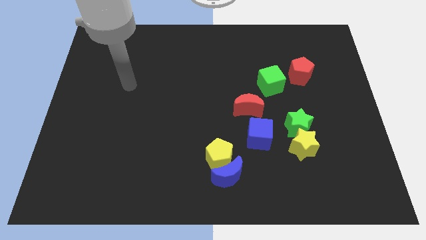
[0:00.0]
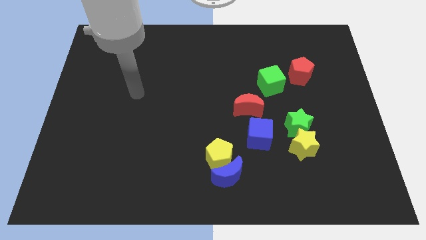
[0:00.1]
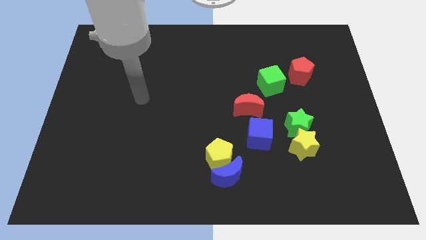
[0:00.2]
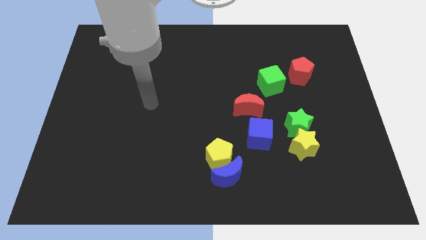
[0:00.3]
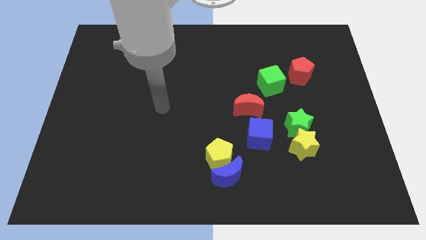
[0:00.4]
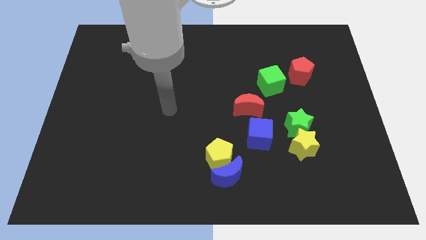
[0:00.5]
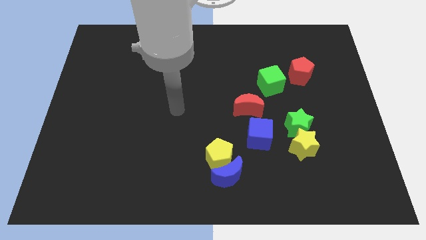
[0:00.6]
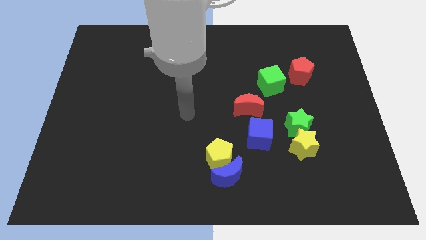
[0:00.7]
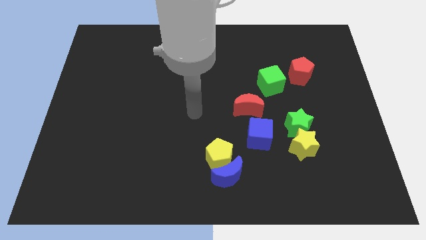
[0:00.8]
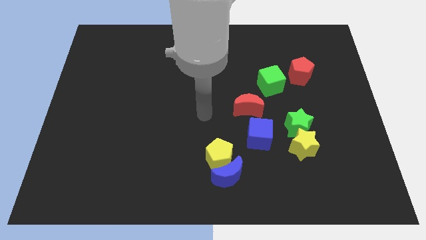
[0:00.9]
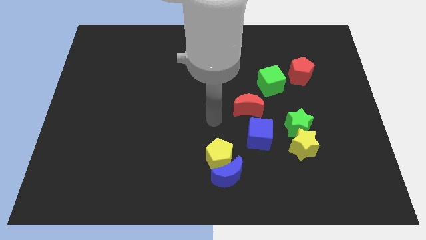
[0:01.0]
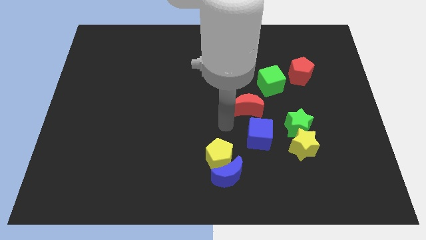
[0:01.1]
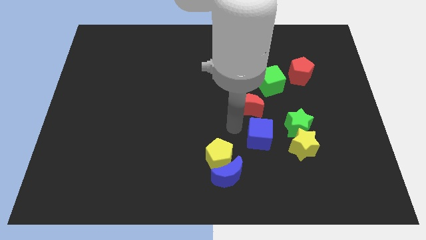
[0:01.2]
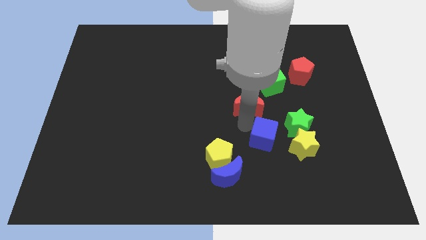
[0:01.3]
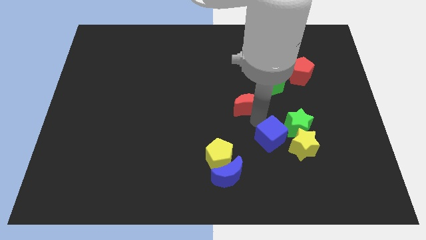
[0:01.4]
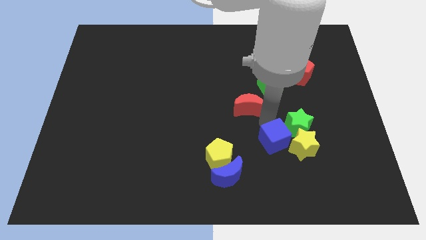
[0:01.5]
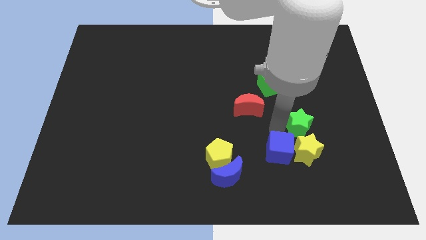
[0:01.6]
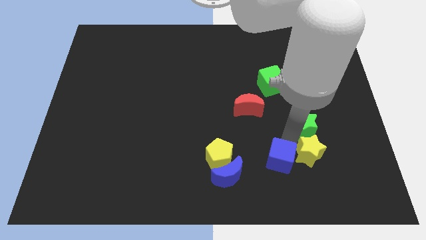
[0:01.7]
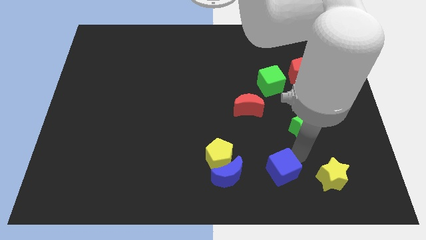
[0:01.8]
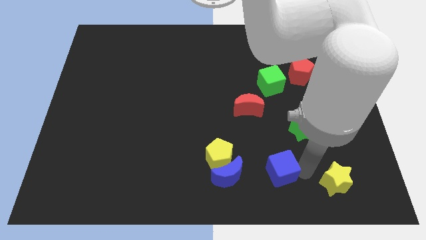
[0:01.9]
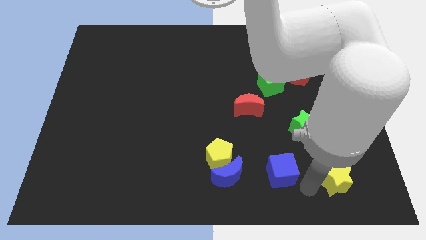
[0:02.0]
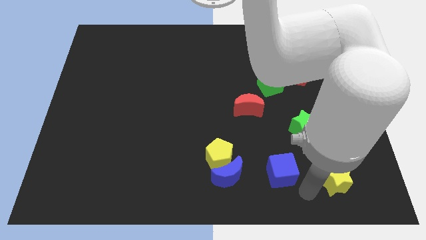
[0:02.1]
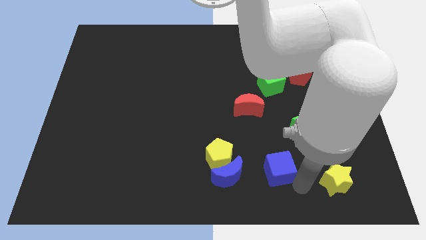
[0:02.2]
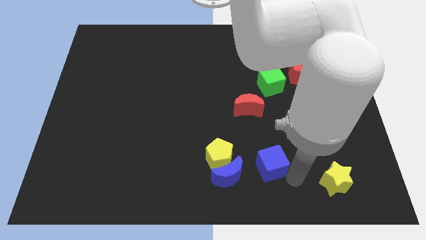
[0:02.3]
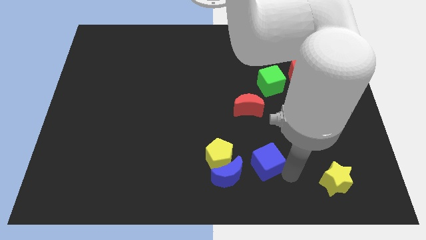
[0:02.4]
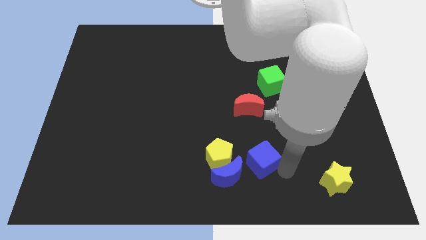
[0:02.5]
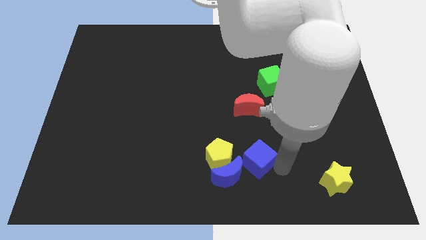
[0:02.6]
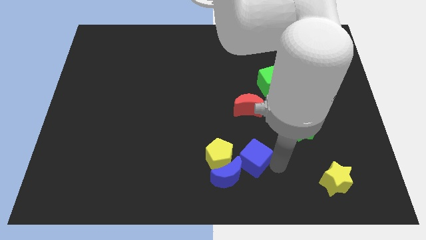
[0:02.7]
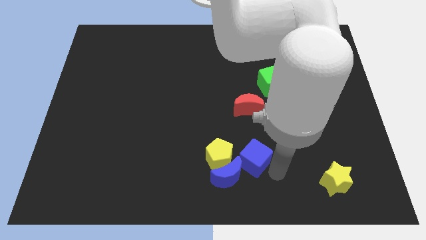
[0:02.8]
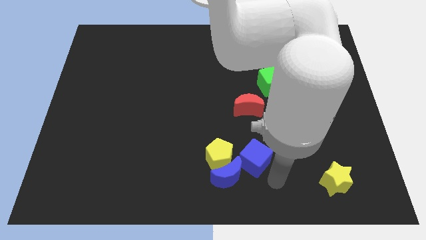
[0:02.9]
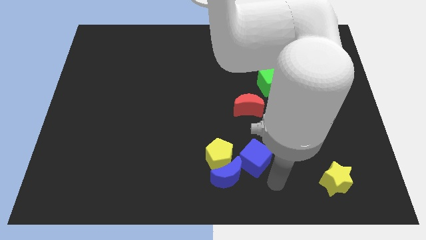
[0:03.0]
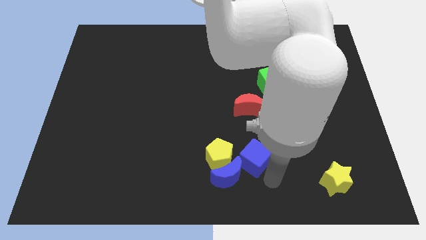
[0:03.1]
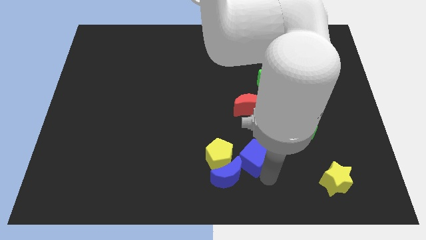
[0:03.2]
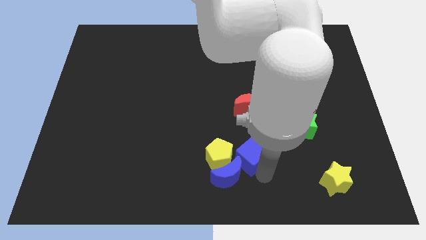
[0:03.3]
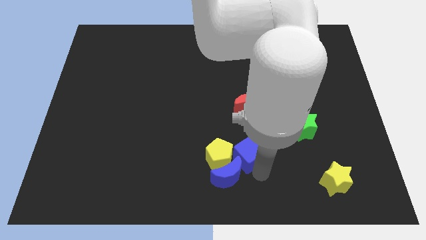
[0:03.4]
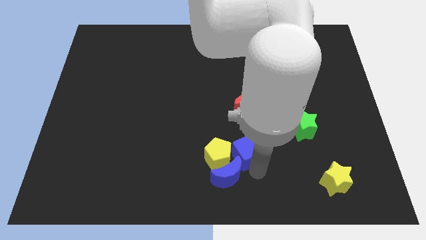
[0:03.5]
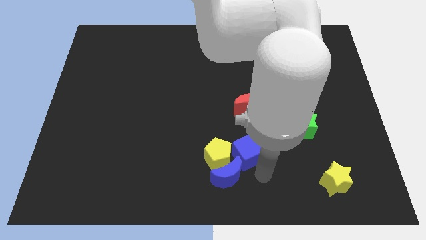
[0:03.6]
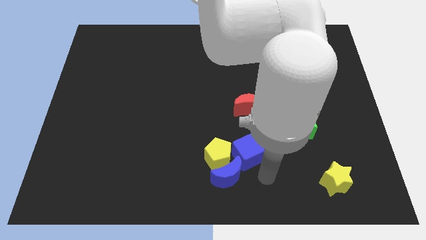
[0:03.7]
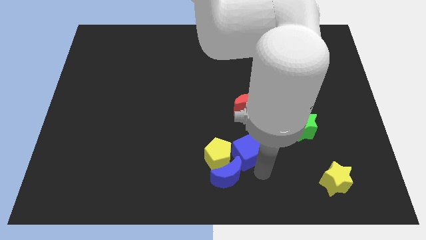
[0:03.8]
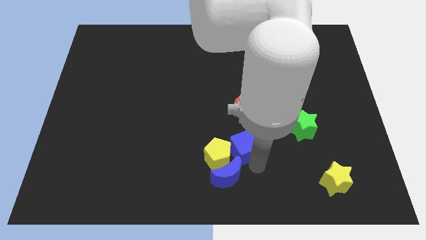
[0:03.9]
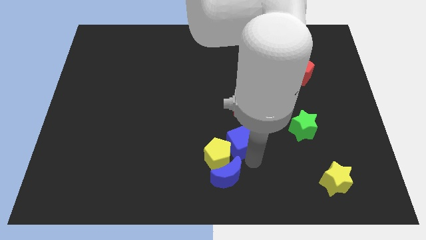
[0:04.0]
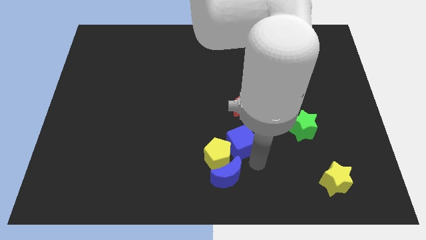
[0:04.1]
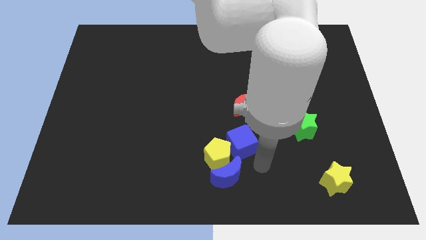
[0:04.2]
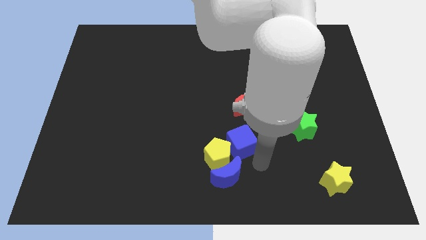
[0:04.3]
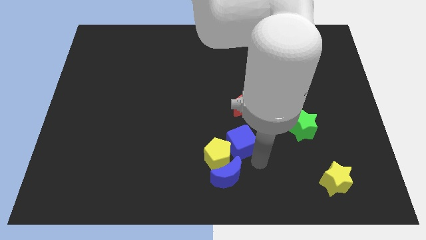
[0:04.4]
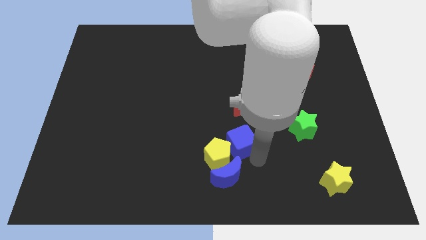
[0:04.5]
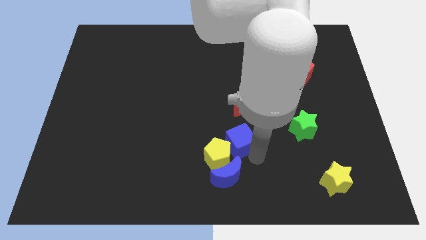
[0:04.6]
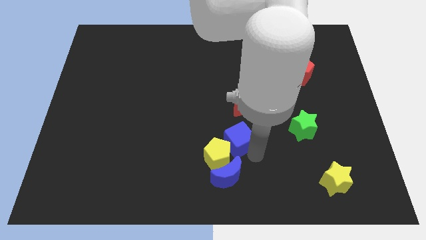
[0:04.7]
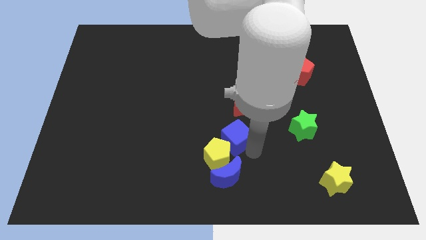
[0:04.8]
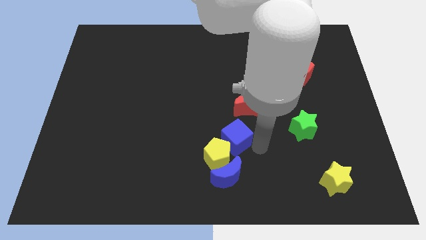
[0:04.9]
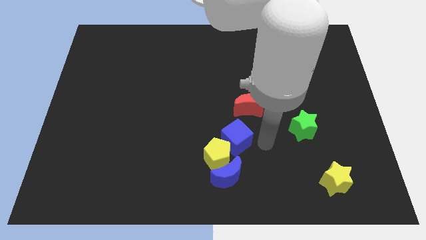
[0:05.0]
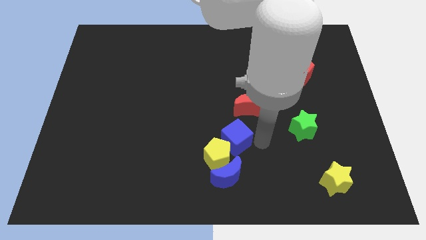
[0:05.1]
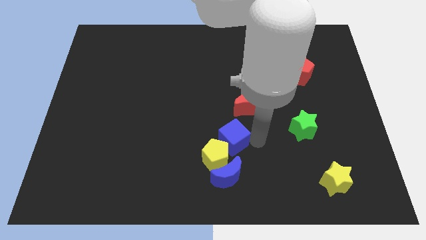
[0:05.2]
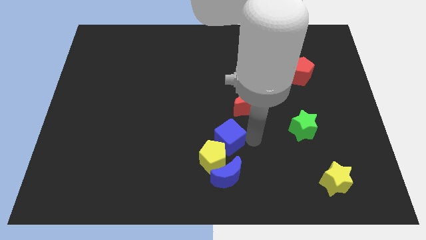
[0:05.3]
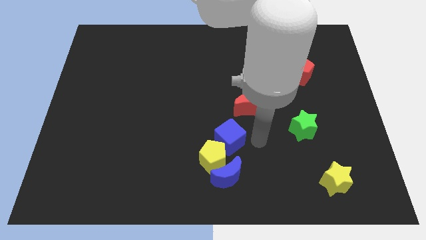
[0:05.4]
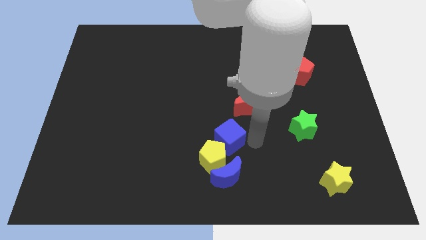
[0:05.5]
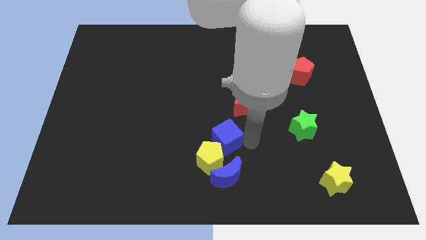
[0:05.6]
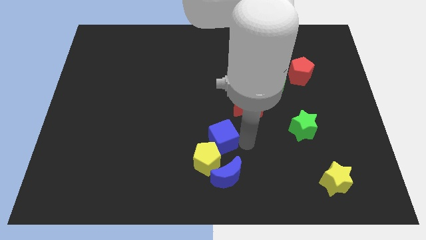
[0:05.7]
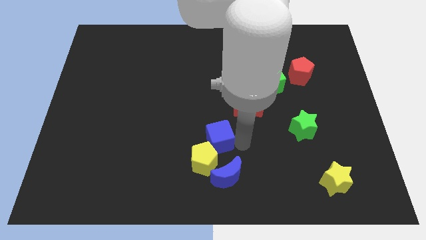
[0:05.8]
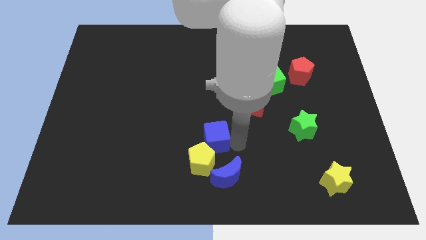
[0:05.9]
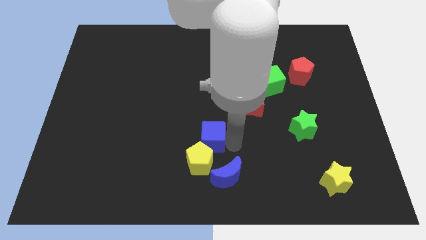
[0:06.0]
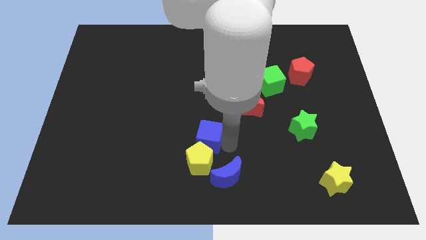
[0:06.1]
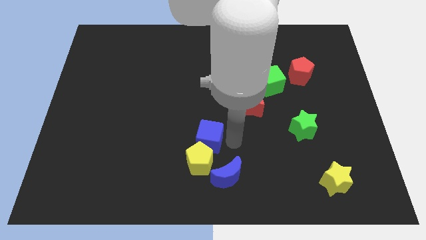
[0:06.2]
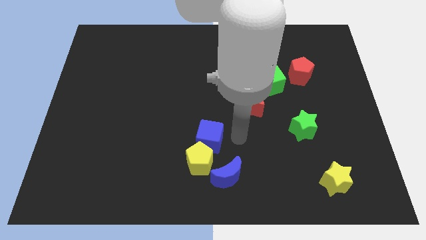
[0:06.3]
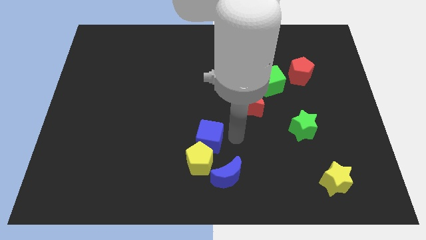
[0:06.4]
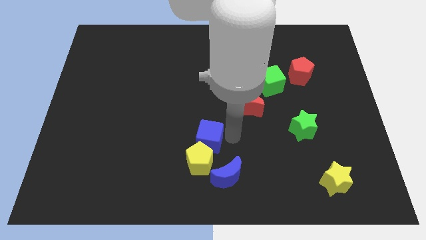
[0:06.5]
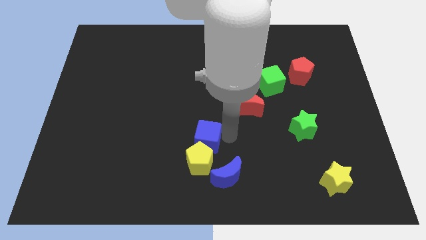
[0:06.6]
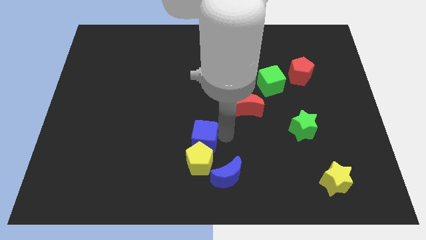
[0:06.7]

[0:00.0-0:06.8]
push the blue cube diagonally up and to the left of the yellow pentagon
